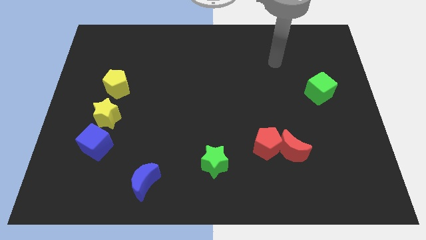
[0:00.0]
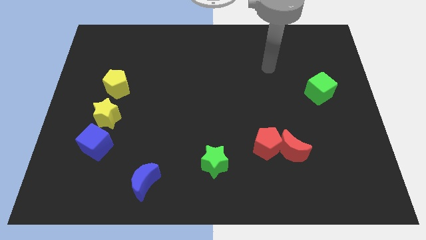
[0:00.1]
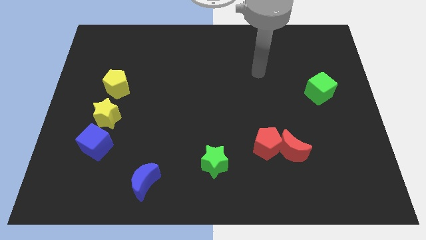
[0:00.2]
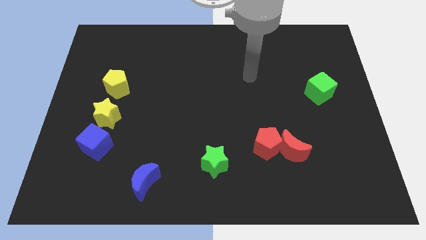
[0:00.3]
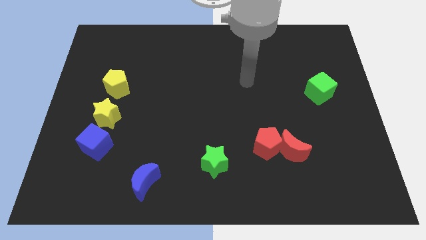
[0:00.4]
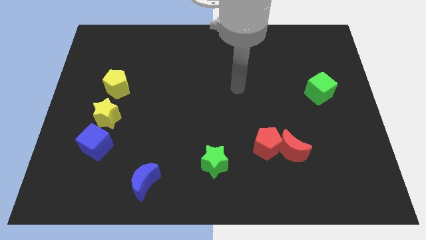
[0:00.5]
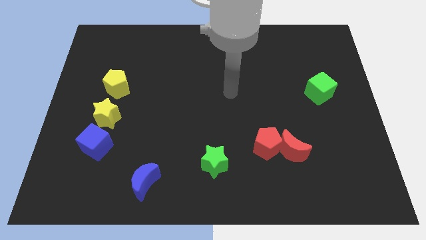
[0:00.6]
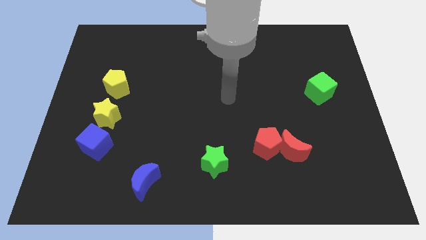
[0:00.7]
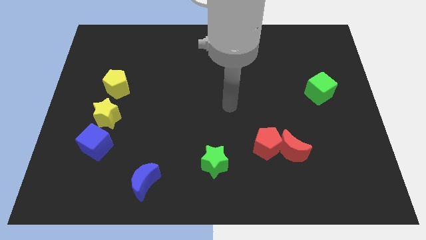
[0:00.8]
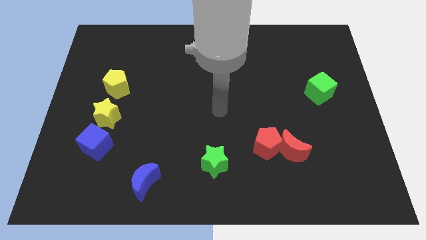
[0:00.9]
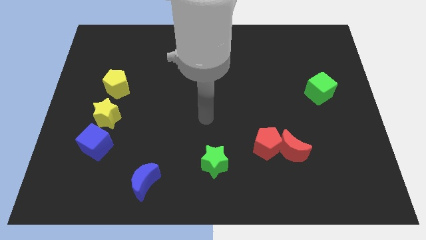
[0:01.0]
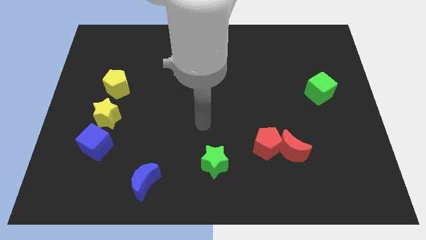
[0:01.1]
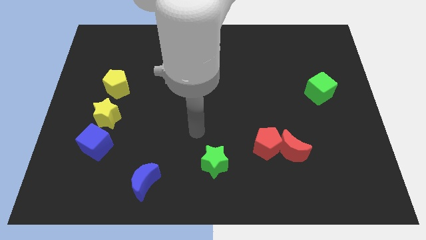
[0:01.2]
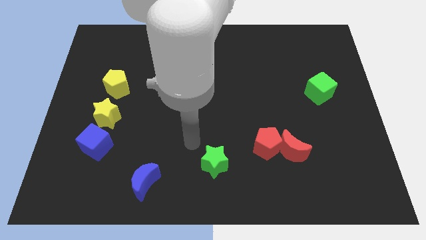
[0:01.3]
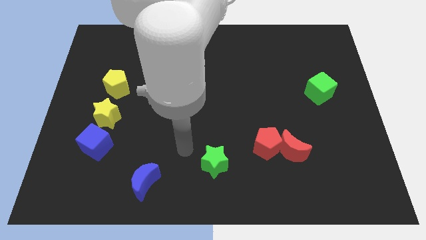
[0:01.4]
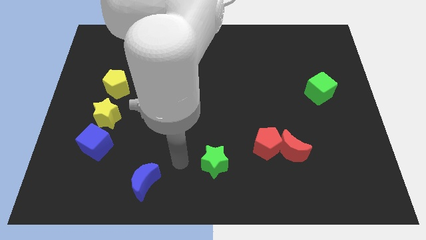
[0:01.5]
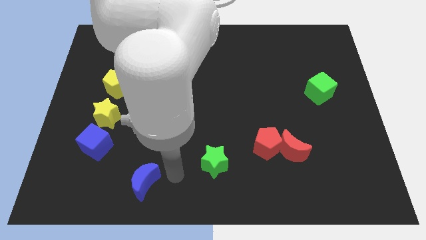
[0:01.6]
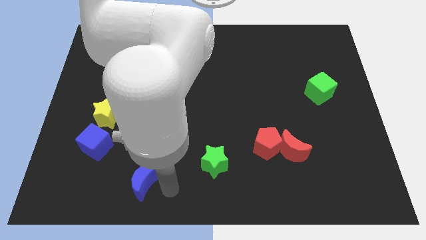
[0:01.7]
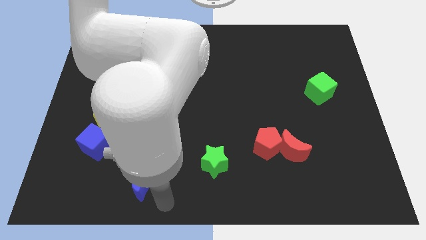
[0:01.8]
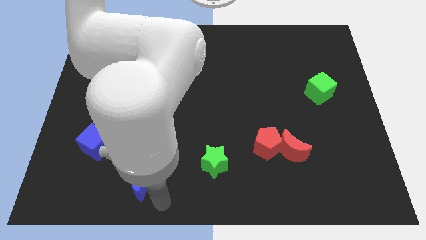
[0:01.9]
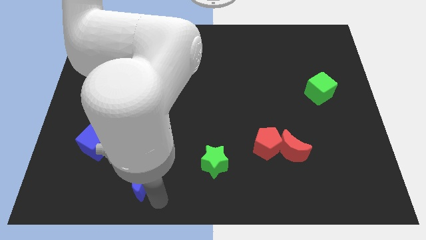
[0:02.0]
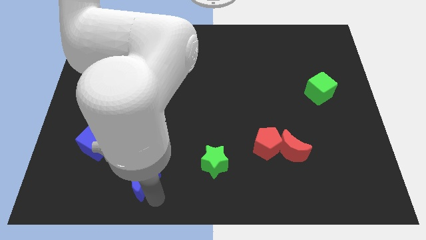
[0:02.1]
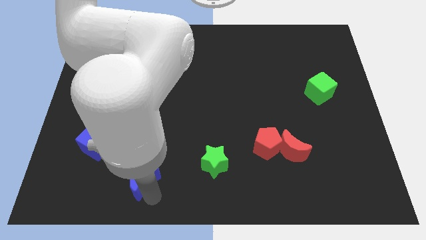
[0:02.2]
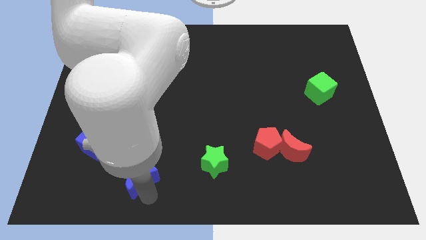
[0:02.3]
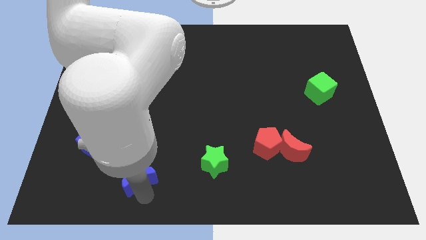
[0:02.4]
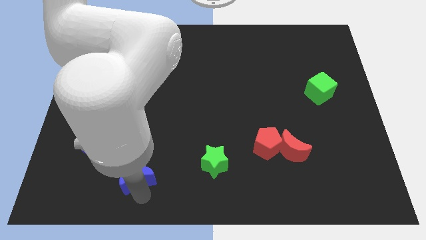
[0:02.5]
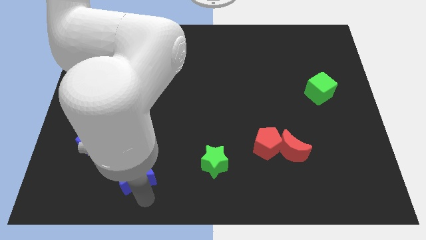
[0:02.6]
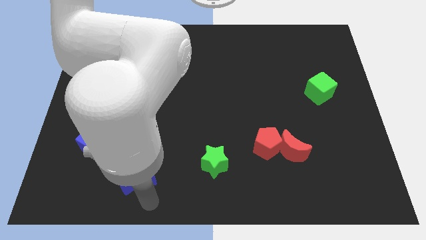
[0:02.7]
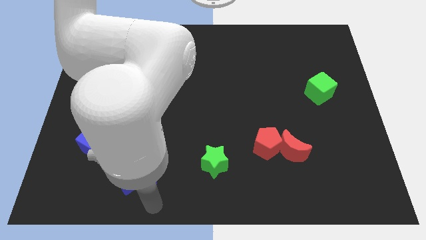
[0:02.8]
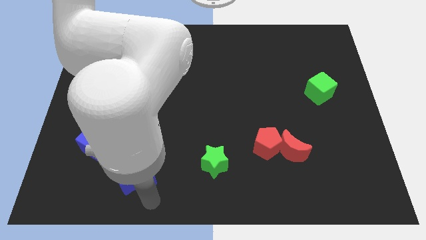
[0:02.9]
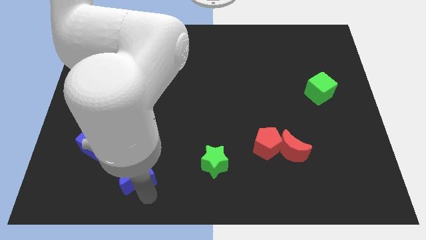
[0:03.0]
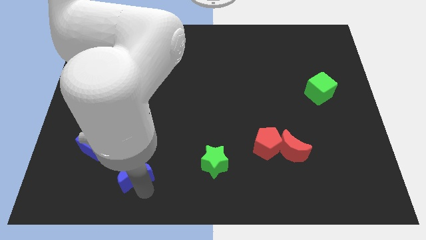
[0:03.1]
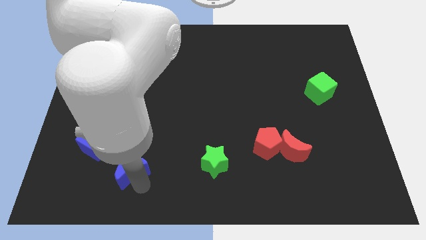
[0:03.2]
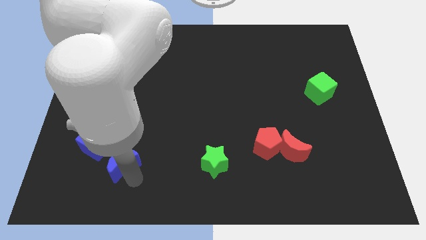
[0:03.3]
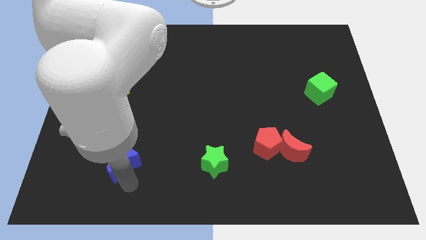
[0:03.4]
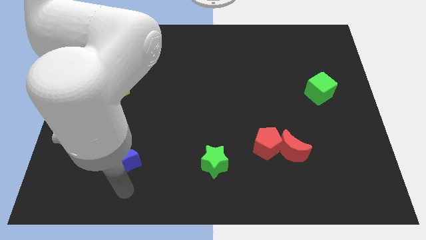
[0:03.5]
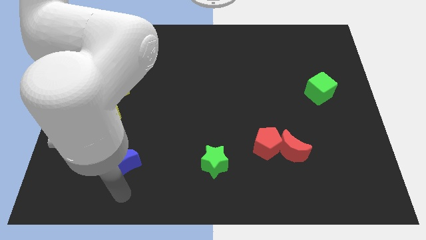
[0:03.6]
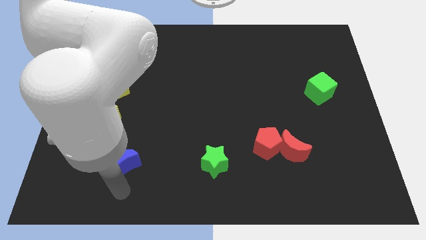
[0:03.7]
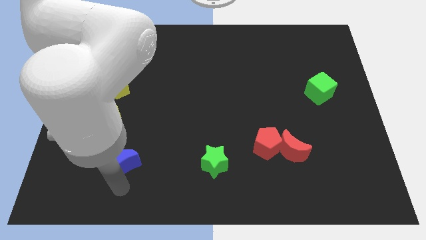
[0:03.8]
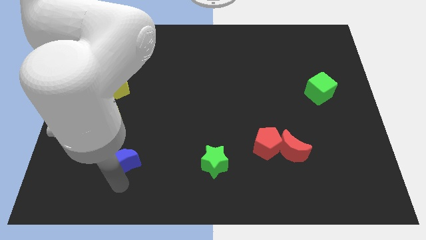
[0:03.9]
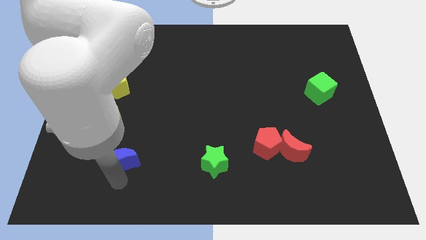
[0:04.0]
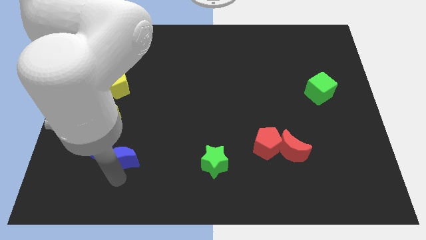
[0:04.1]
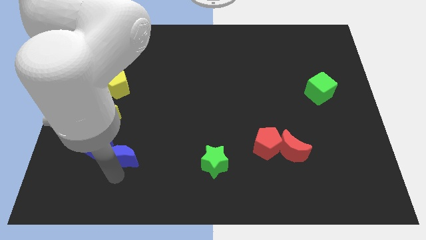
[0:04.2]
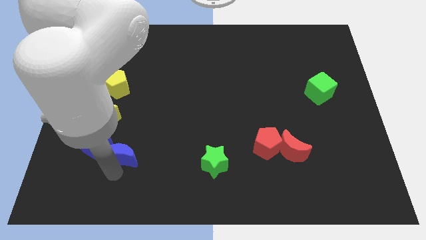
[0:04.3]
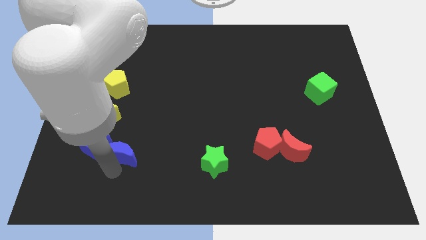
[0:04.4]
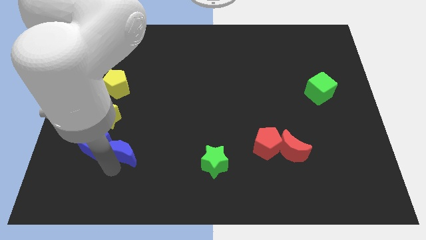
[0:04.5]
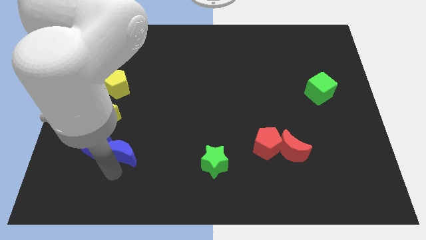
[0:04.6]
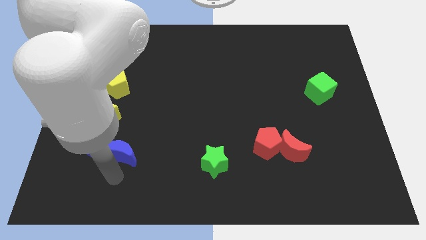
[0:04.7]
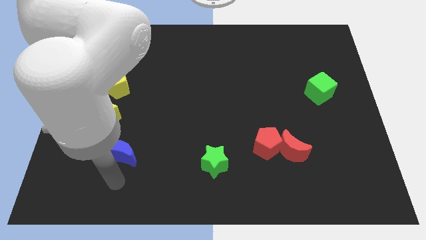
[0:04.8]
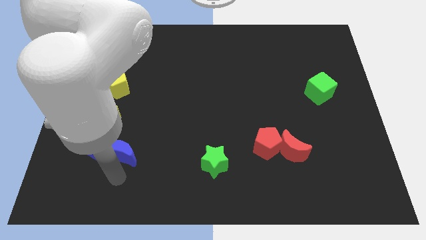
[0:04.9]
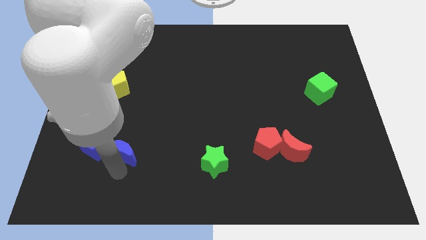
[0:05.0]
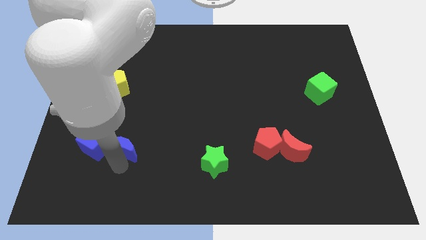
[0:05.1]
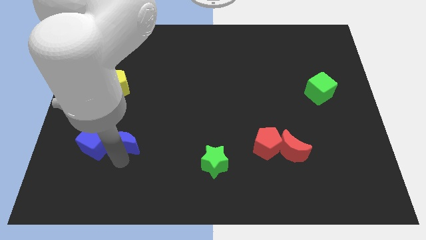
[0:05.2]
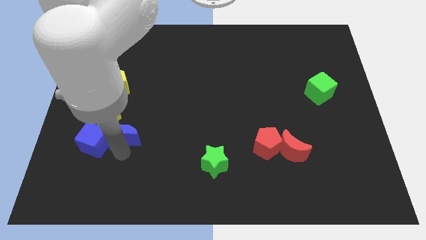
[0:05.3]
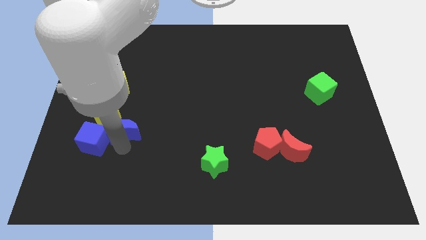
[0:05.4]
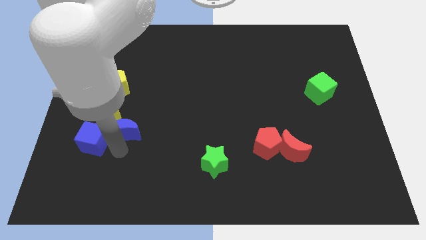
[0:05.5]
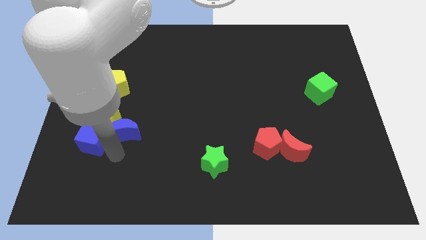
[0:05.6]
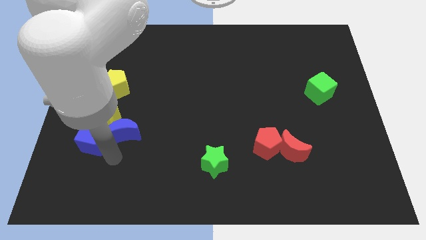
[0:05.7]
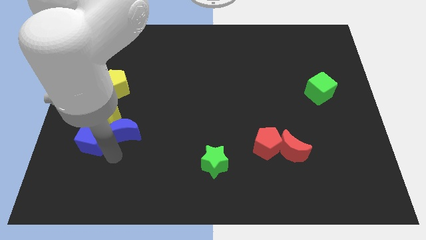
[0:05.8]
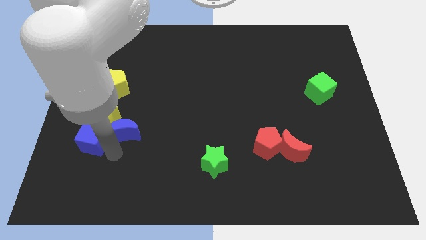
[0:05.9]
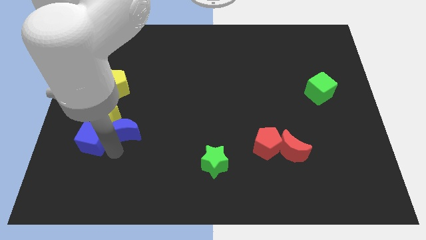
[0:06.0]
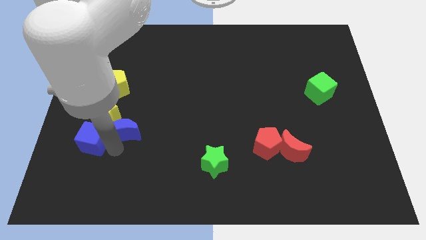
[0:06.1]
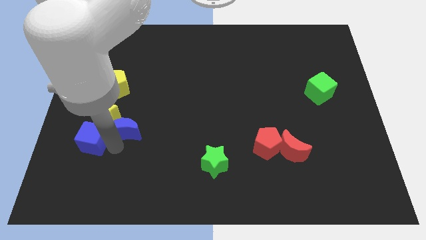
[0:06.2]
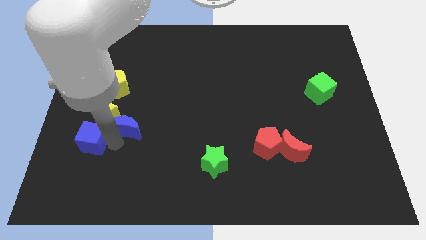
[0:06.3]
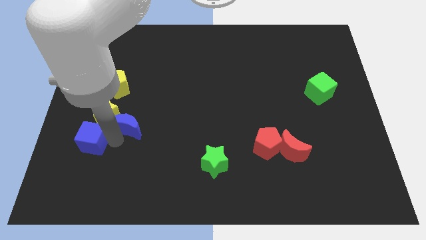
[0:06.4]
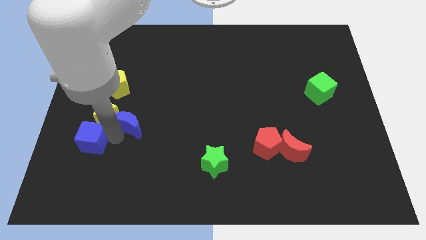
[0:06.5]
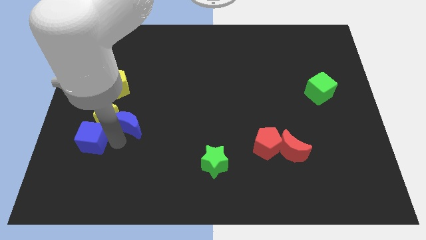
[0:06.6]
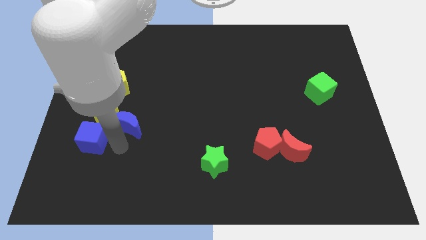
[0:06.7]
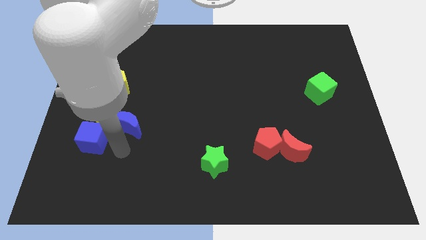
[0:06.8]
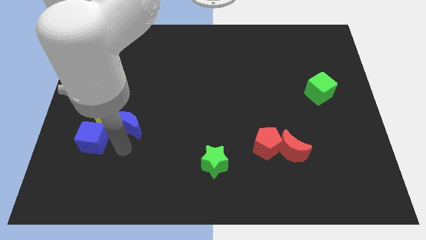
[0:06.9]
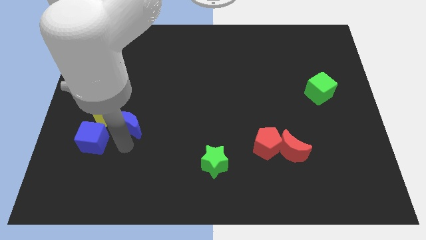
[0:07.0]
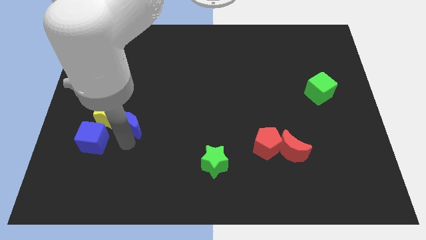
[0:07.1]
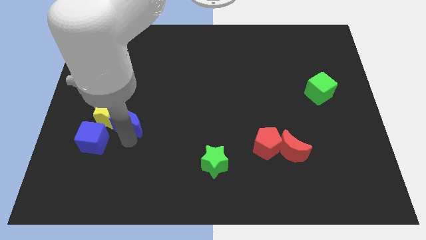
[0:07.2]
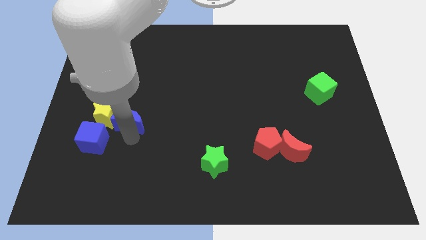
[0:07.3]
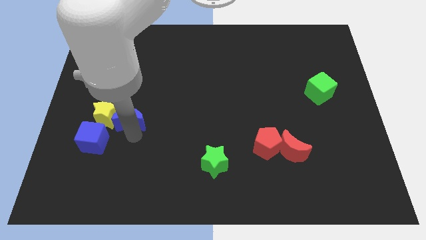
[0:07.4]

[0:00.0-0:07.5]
move the blue moon to the bottom right side of the yellow pentagon
